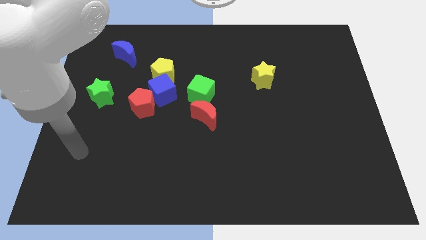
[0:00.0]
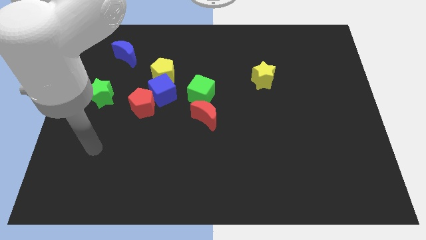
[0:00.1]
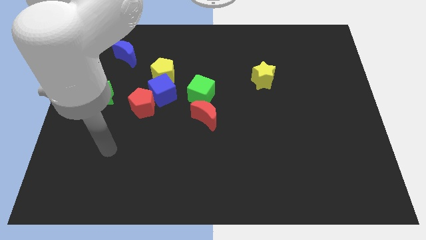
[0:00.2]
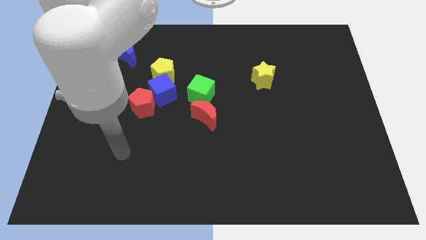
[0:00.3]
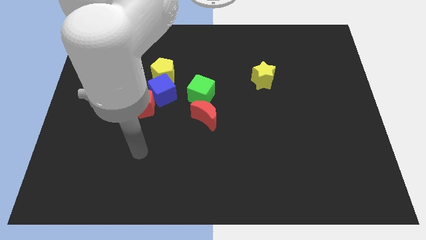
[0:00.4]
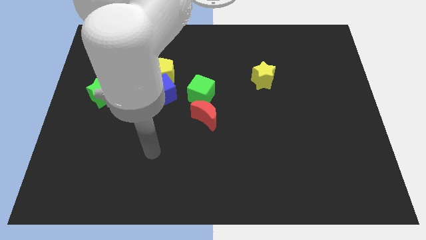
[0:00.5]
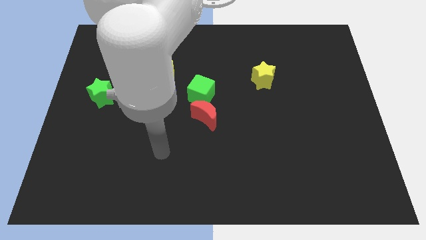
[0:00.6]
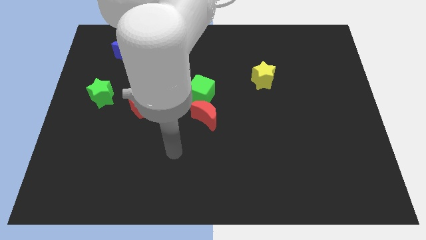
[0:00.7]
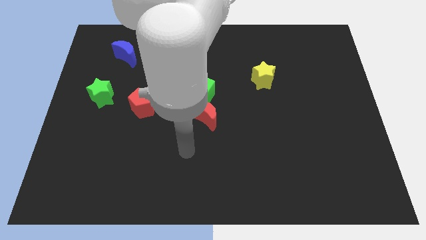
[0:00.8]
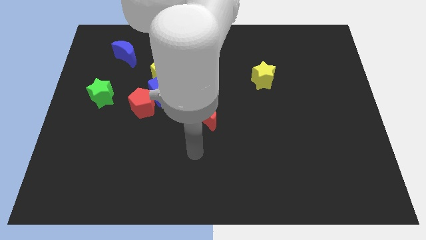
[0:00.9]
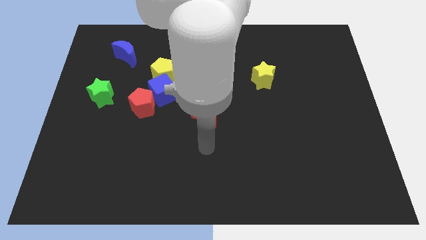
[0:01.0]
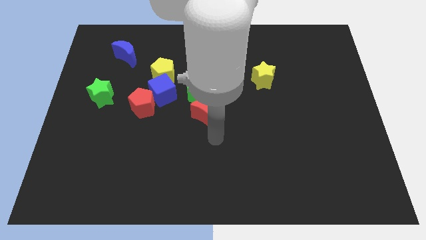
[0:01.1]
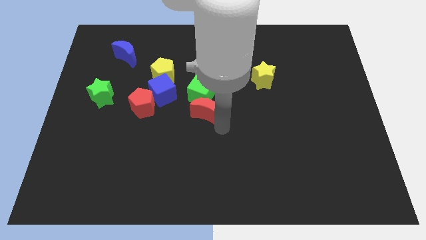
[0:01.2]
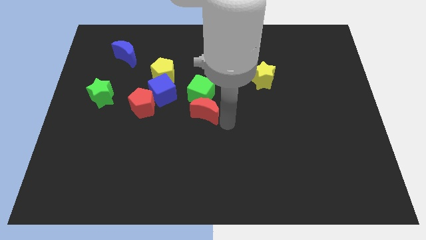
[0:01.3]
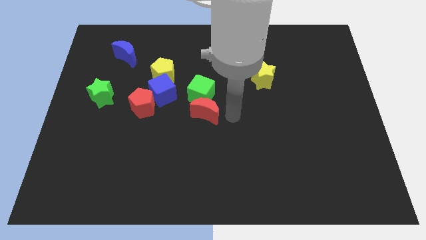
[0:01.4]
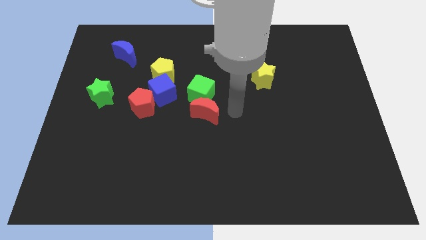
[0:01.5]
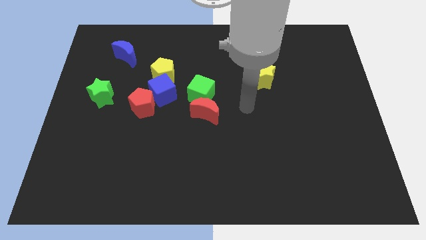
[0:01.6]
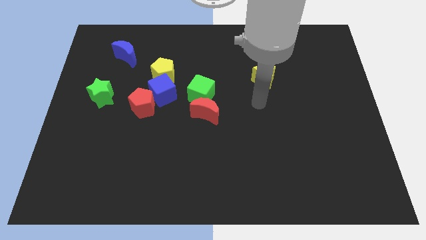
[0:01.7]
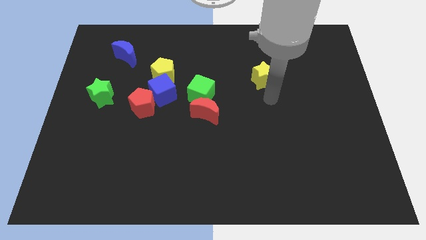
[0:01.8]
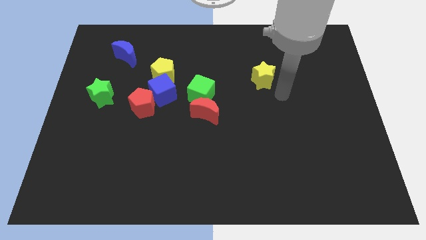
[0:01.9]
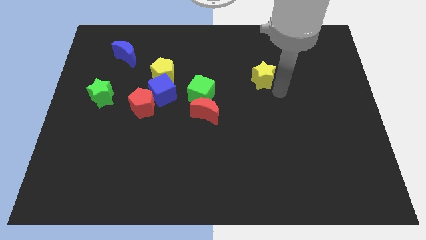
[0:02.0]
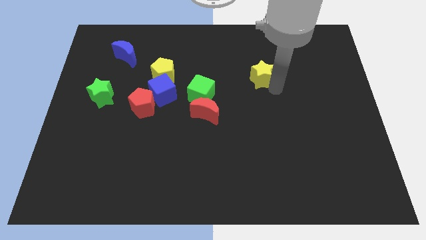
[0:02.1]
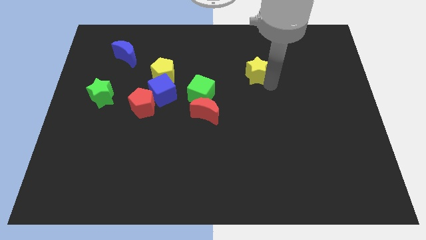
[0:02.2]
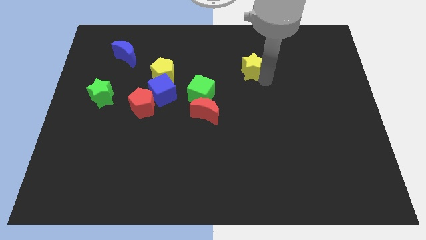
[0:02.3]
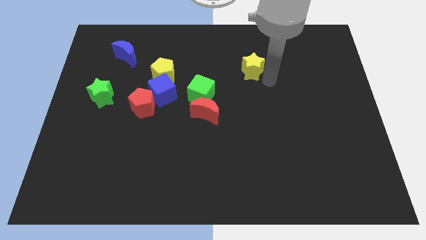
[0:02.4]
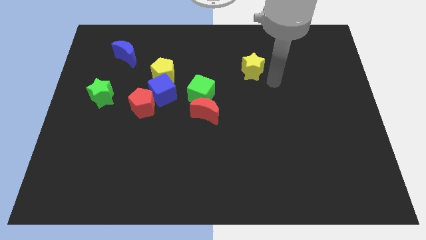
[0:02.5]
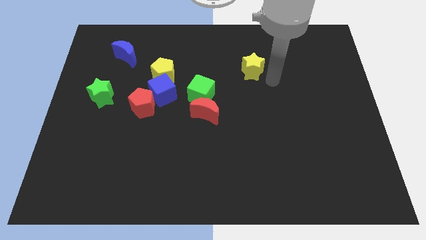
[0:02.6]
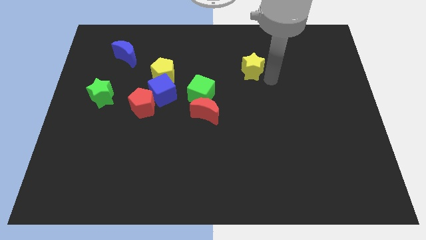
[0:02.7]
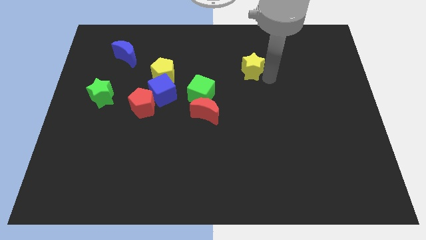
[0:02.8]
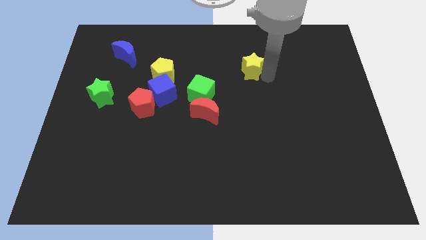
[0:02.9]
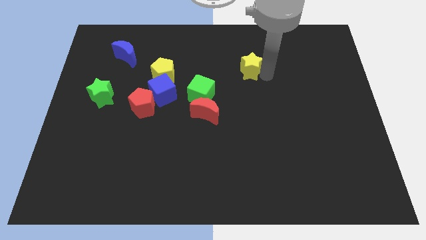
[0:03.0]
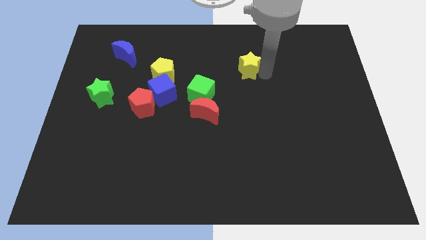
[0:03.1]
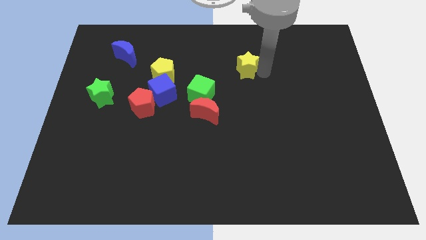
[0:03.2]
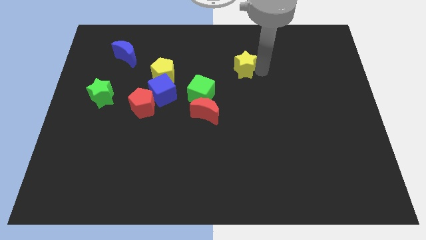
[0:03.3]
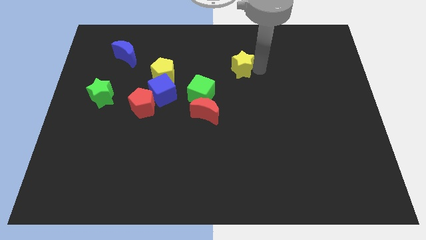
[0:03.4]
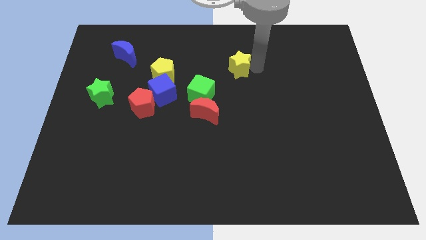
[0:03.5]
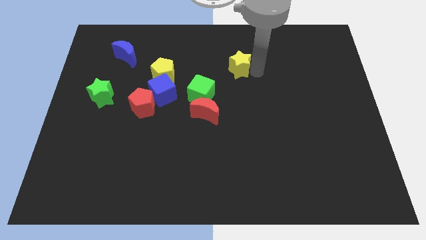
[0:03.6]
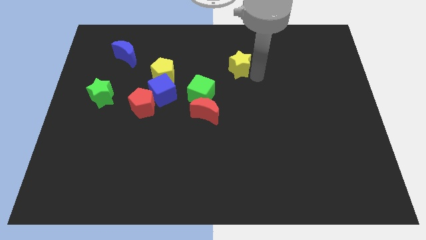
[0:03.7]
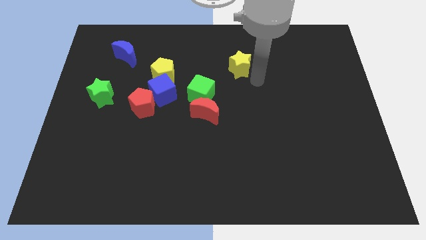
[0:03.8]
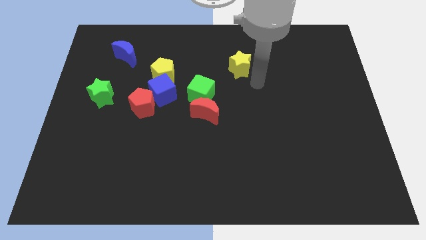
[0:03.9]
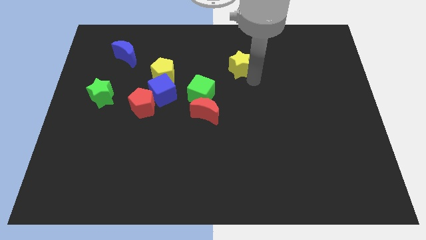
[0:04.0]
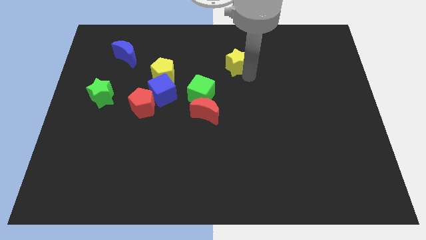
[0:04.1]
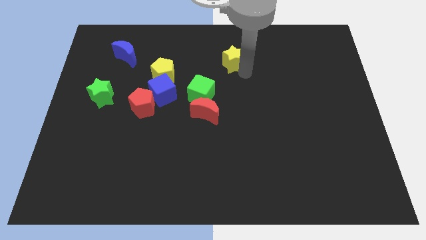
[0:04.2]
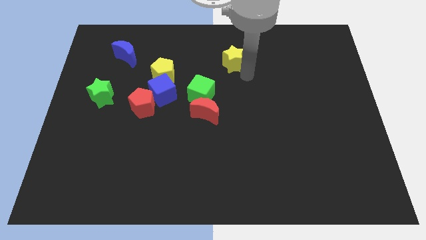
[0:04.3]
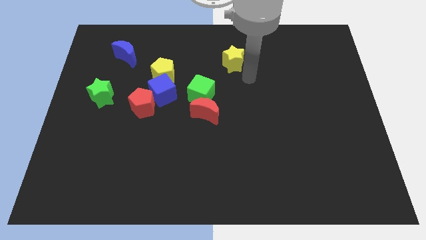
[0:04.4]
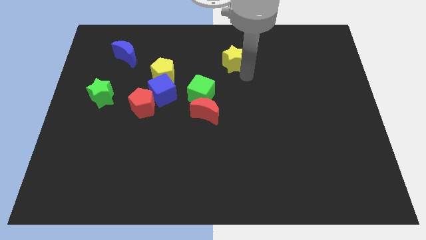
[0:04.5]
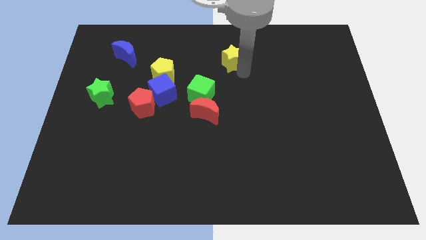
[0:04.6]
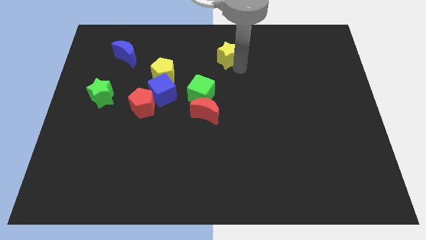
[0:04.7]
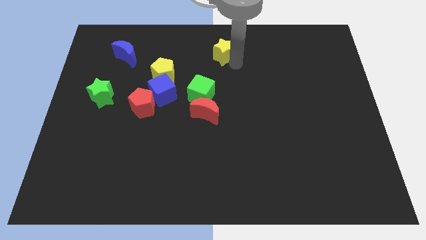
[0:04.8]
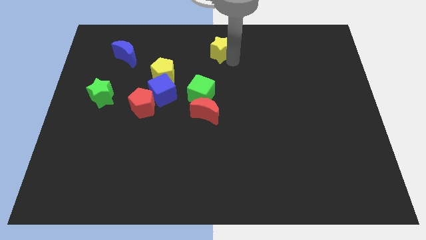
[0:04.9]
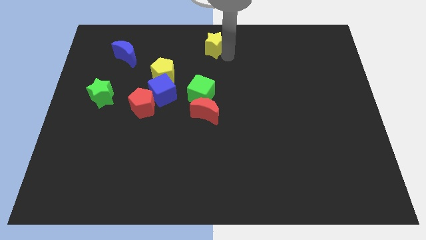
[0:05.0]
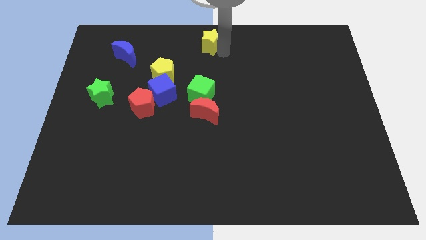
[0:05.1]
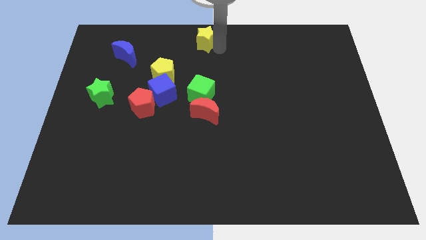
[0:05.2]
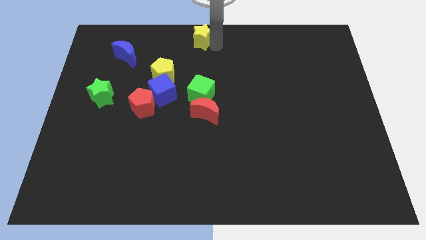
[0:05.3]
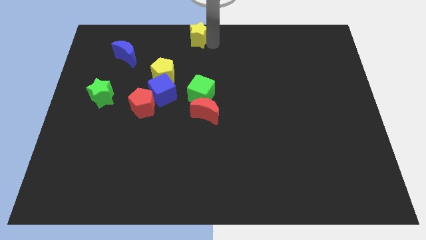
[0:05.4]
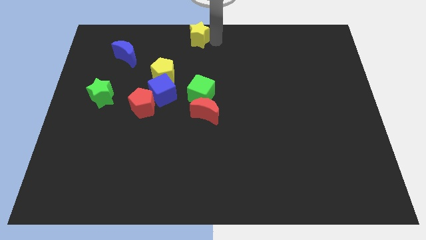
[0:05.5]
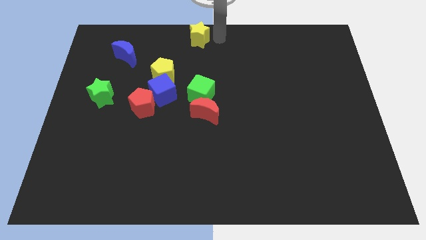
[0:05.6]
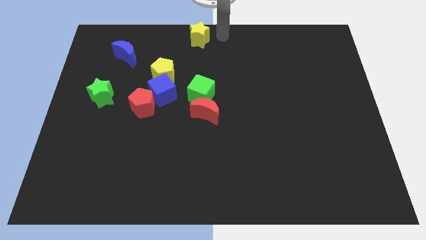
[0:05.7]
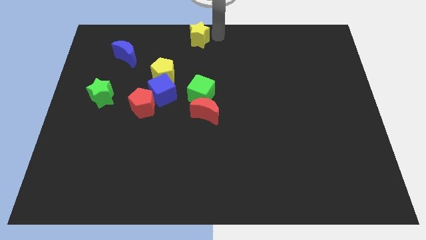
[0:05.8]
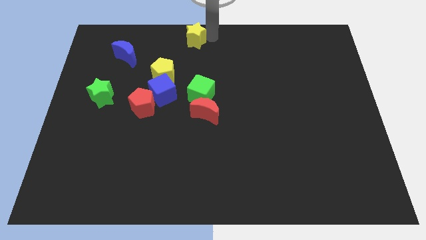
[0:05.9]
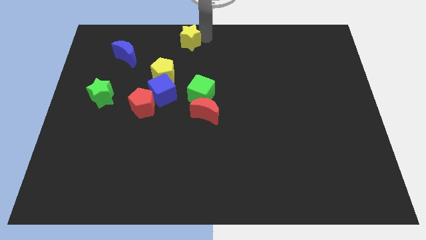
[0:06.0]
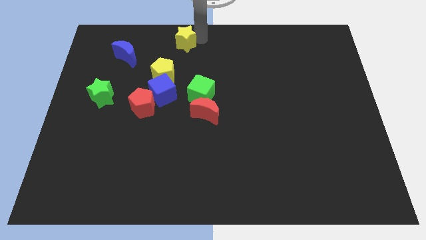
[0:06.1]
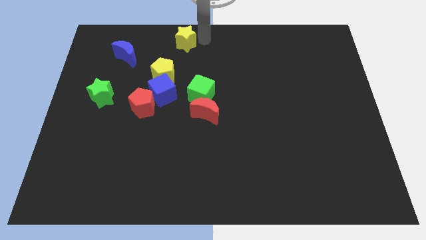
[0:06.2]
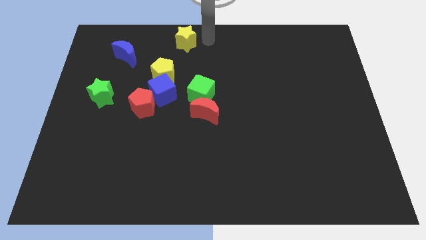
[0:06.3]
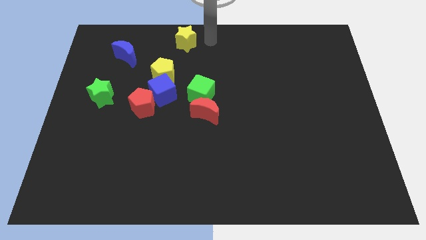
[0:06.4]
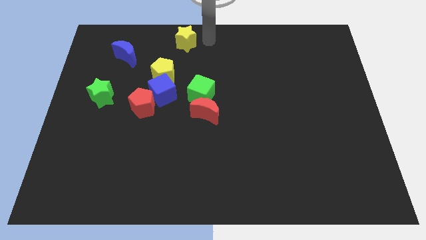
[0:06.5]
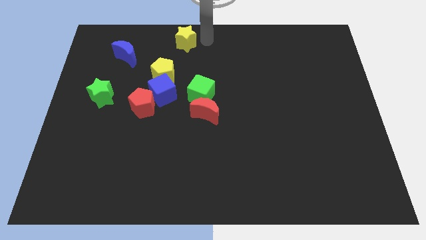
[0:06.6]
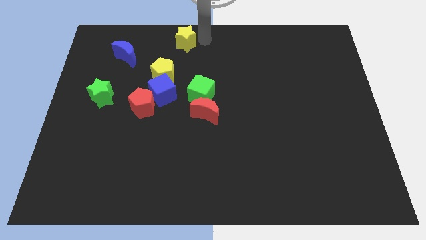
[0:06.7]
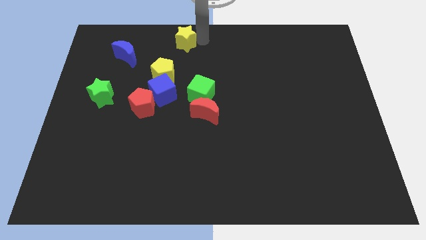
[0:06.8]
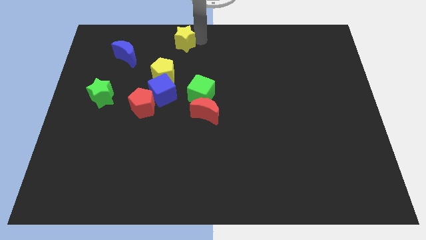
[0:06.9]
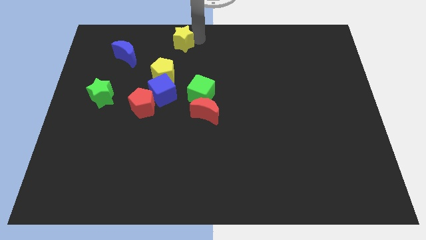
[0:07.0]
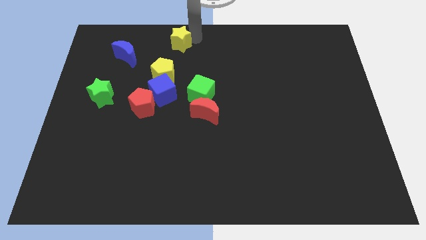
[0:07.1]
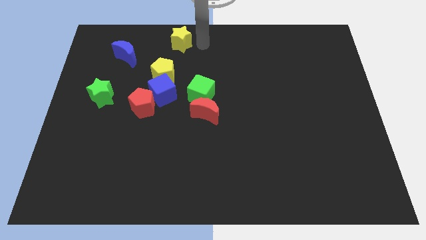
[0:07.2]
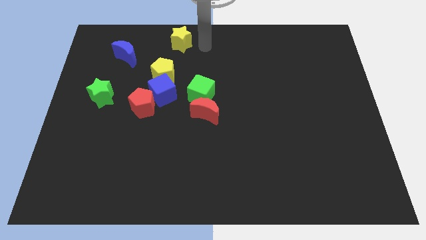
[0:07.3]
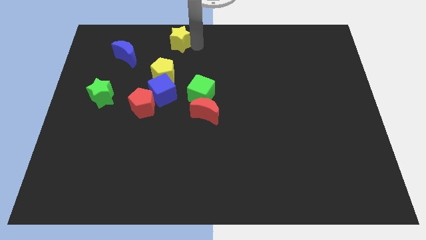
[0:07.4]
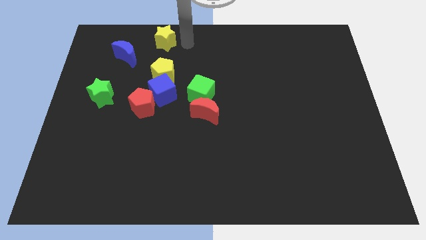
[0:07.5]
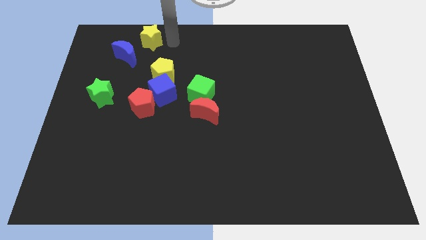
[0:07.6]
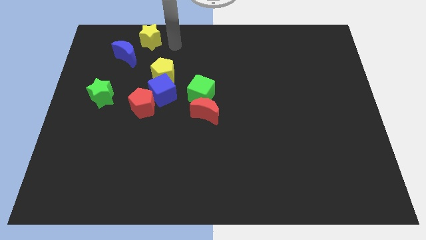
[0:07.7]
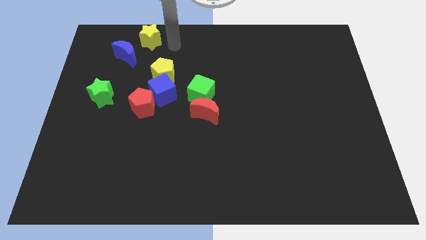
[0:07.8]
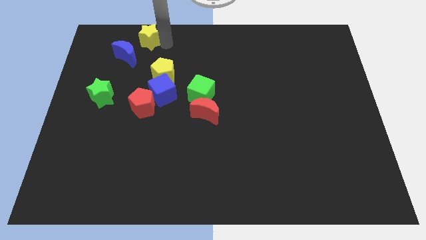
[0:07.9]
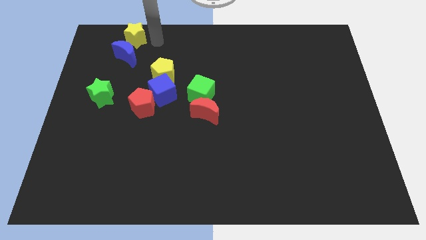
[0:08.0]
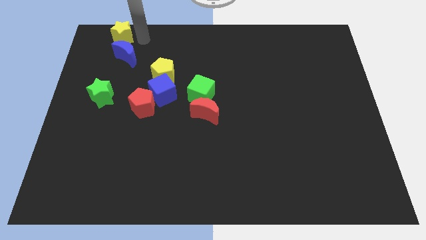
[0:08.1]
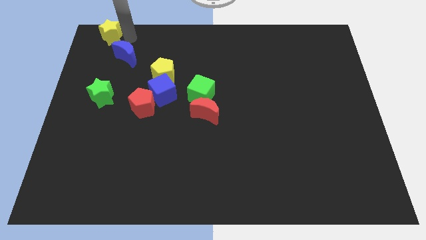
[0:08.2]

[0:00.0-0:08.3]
move the yellow star to the top left of the board
